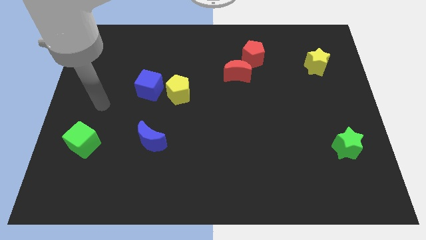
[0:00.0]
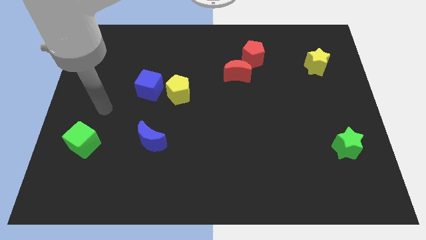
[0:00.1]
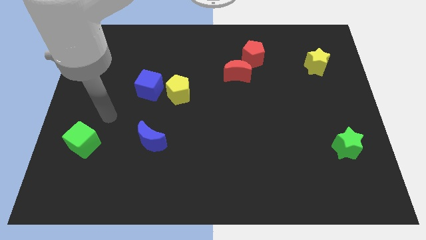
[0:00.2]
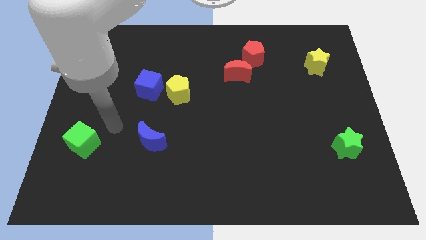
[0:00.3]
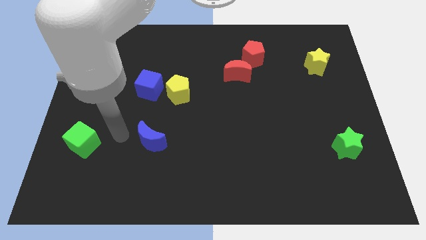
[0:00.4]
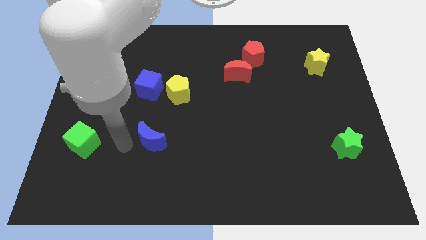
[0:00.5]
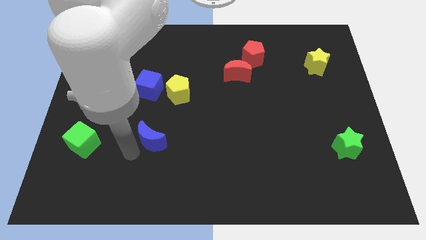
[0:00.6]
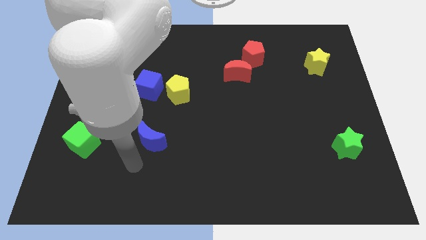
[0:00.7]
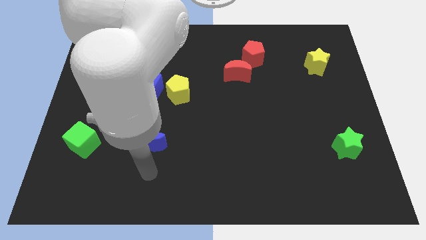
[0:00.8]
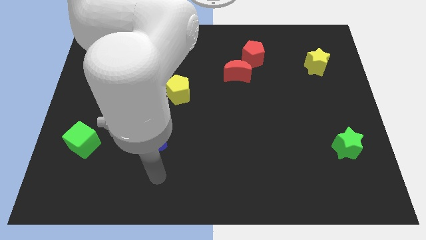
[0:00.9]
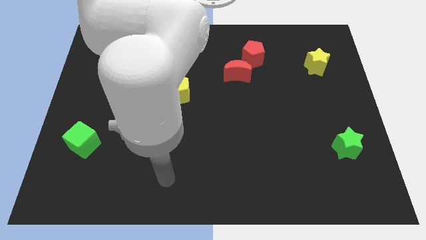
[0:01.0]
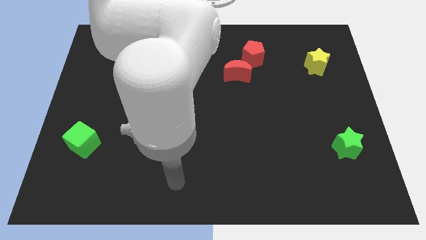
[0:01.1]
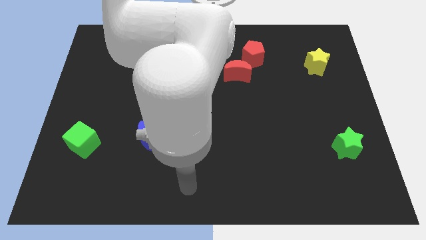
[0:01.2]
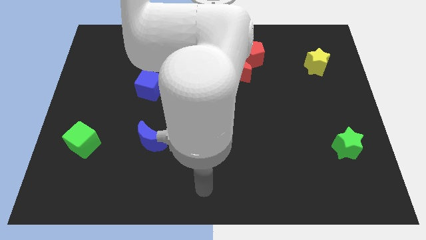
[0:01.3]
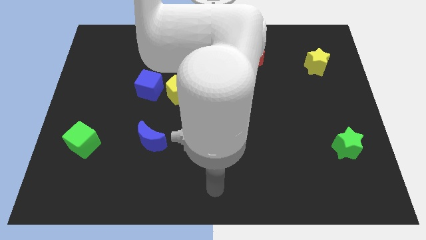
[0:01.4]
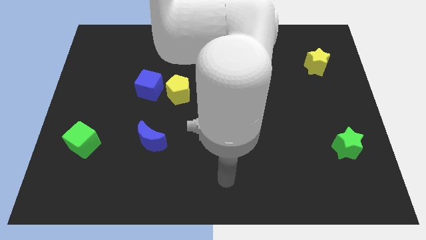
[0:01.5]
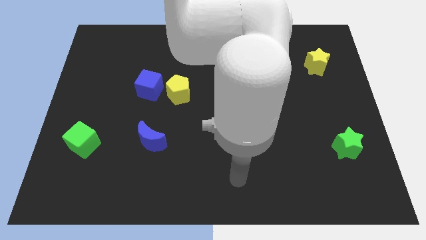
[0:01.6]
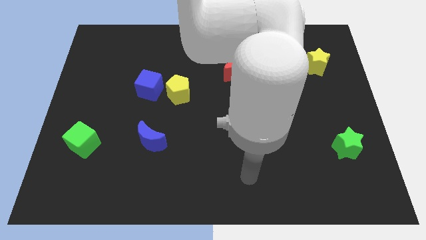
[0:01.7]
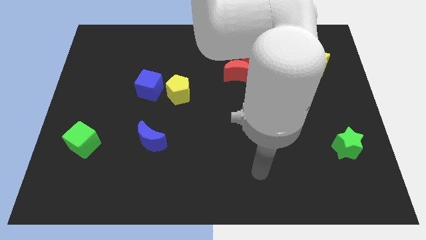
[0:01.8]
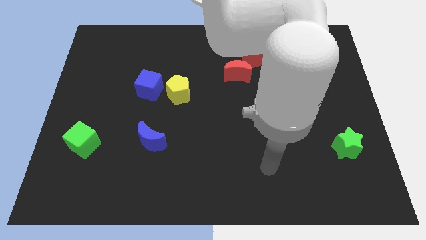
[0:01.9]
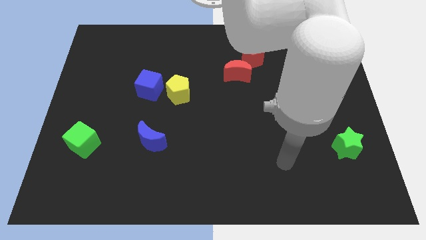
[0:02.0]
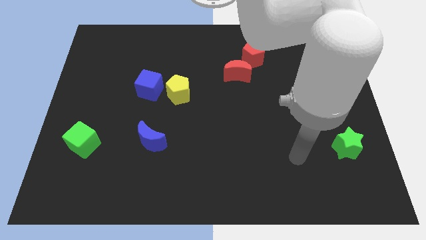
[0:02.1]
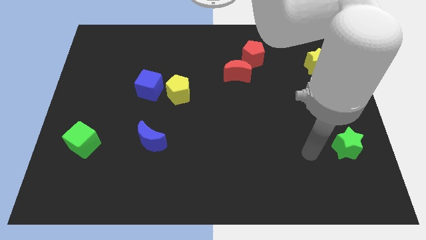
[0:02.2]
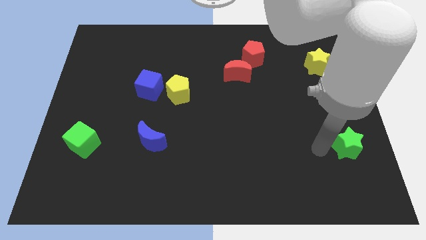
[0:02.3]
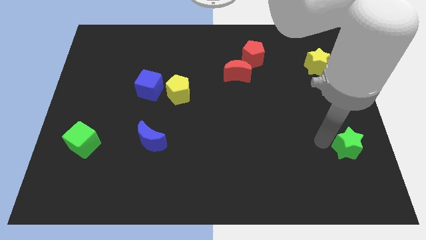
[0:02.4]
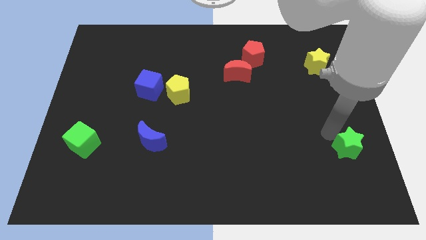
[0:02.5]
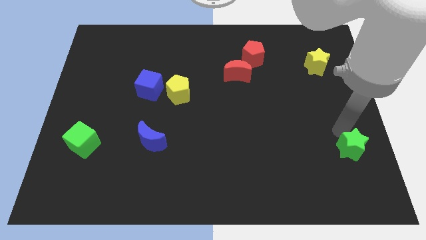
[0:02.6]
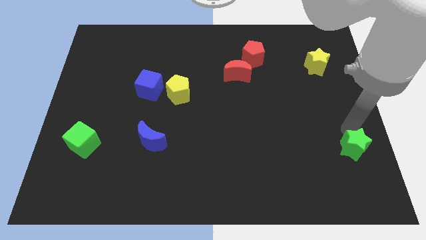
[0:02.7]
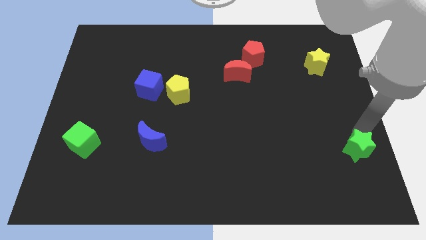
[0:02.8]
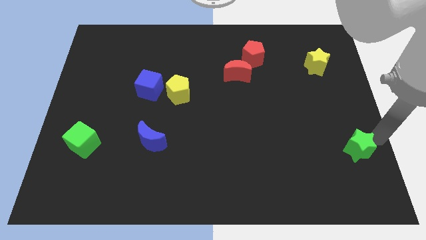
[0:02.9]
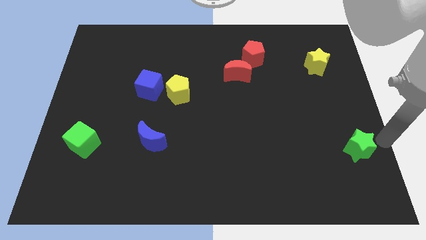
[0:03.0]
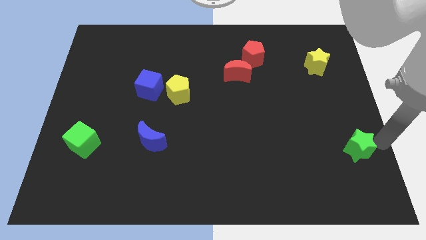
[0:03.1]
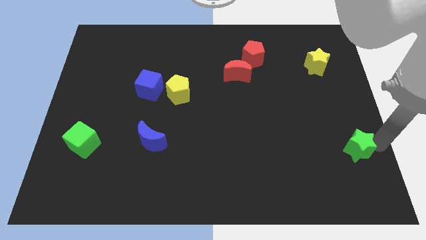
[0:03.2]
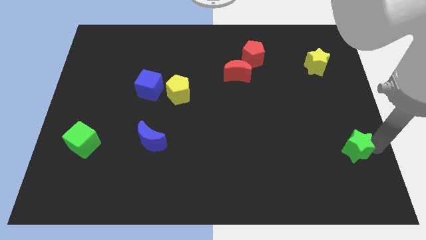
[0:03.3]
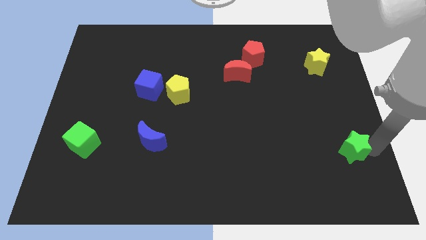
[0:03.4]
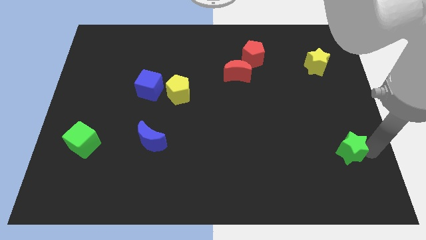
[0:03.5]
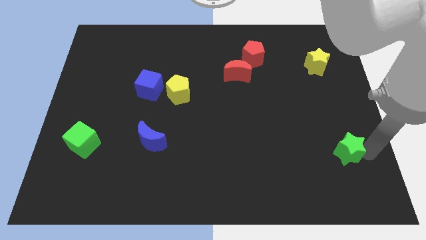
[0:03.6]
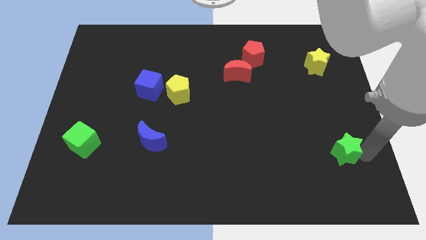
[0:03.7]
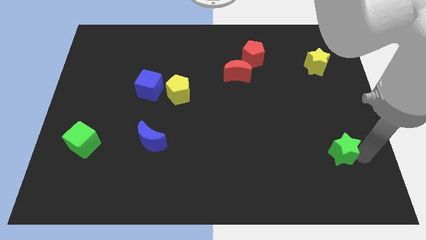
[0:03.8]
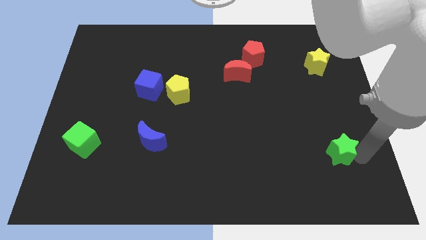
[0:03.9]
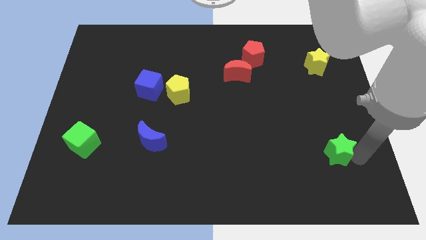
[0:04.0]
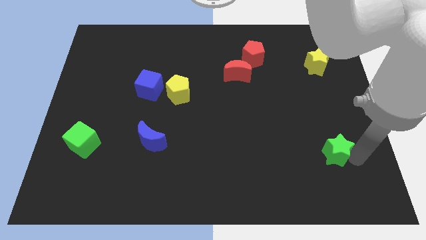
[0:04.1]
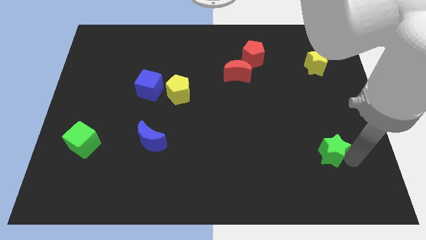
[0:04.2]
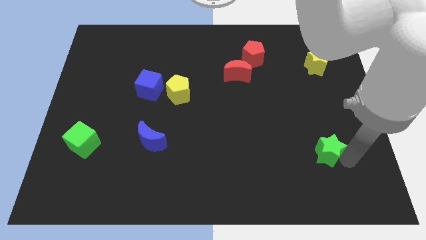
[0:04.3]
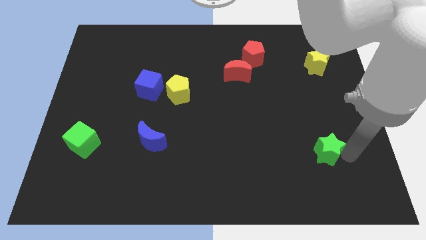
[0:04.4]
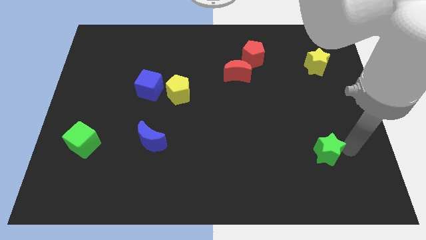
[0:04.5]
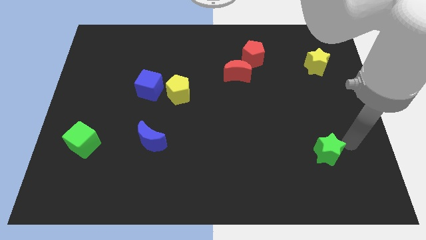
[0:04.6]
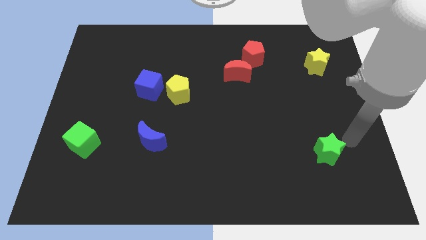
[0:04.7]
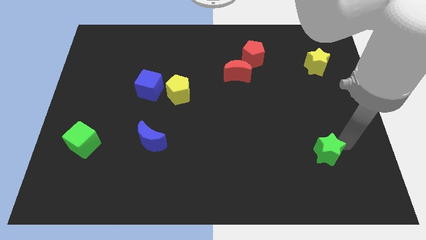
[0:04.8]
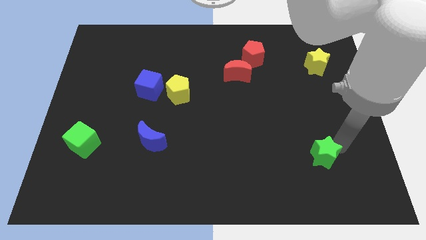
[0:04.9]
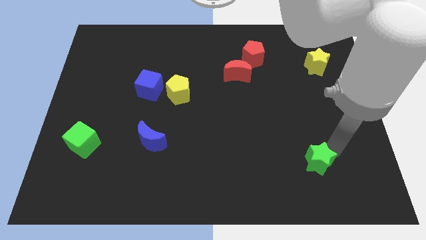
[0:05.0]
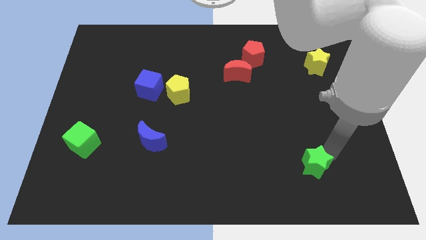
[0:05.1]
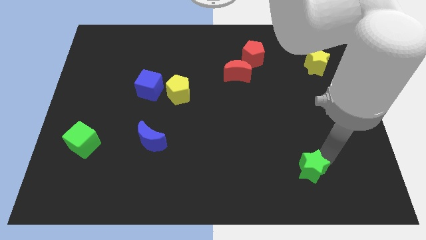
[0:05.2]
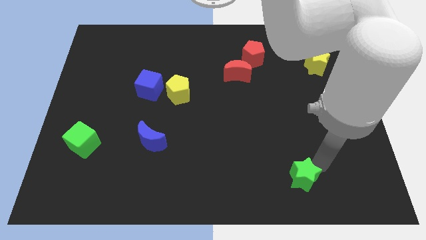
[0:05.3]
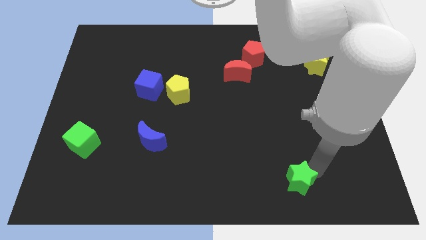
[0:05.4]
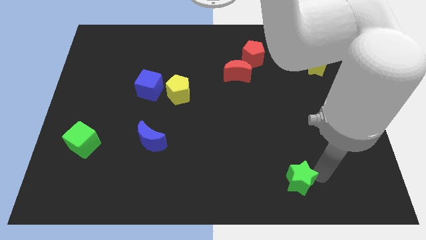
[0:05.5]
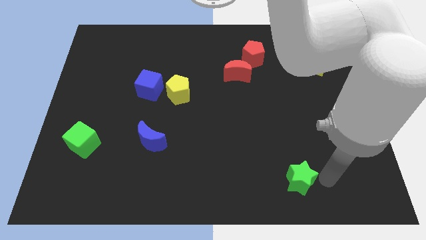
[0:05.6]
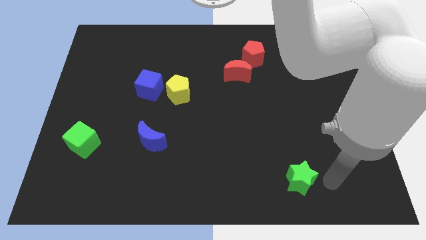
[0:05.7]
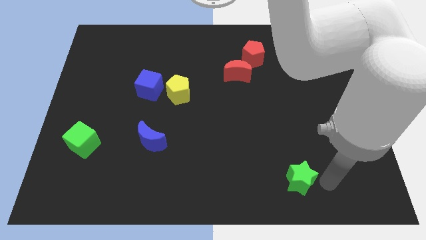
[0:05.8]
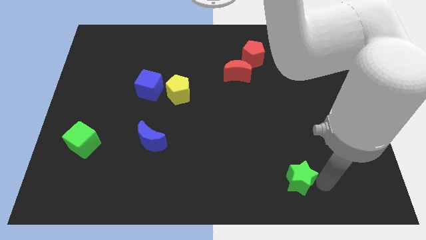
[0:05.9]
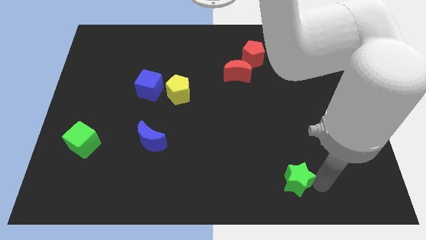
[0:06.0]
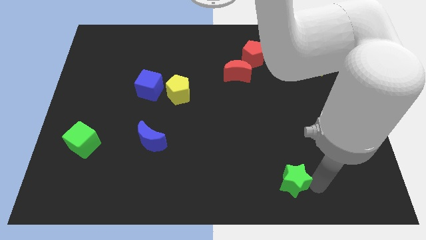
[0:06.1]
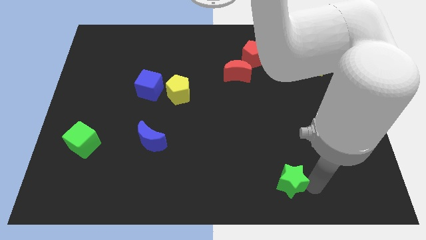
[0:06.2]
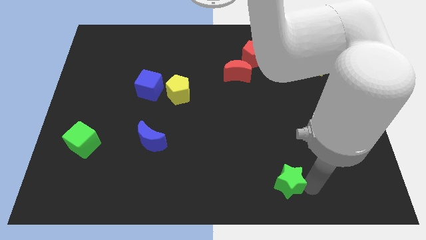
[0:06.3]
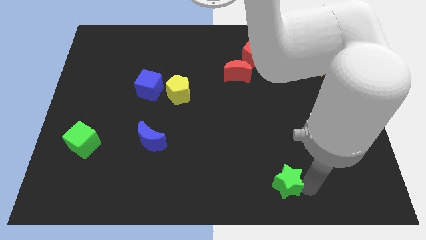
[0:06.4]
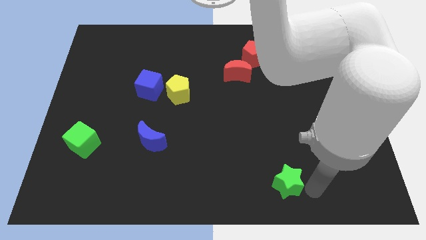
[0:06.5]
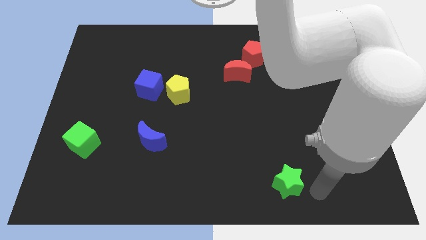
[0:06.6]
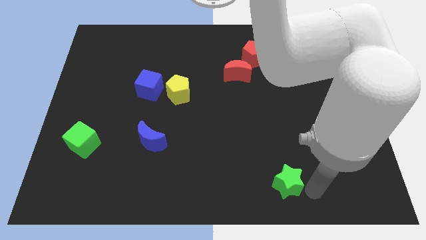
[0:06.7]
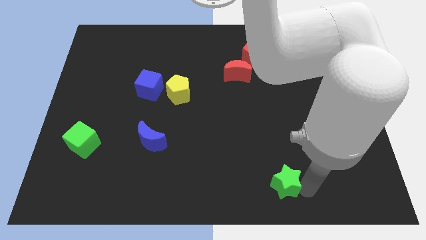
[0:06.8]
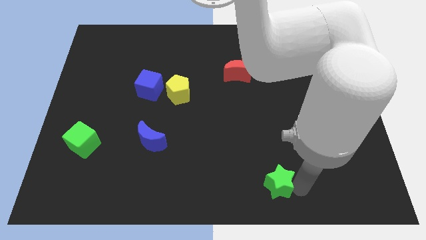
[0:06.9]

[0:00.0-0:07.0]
put the green star to the bottom side

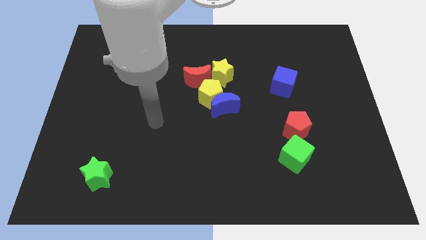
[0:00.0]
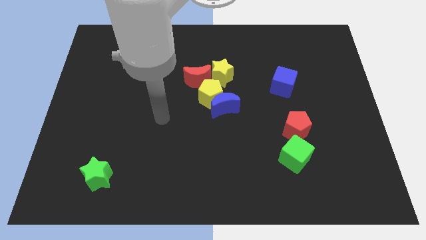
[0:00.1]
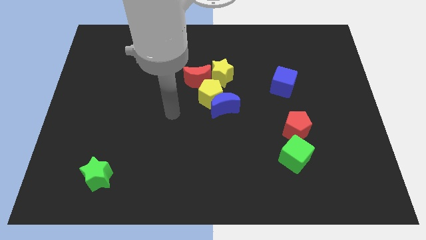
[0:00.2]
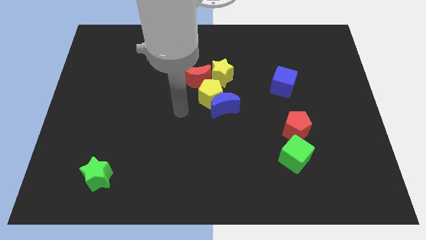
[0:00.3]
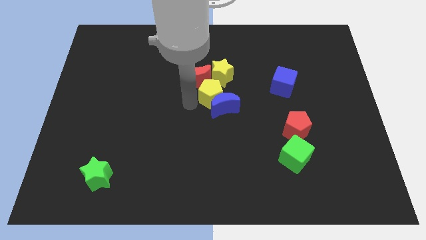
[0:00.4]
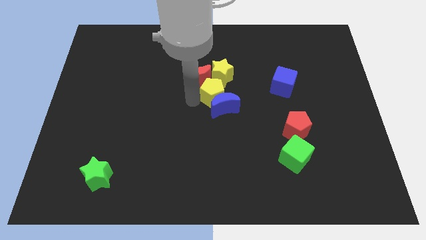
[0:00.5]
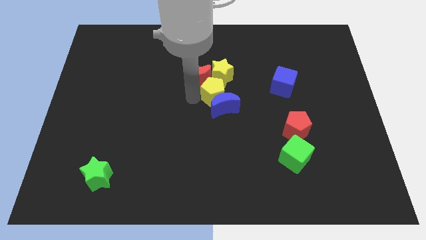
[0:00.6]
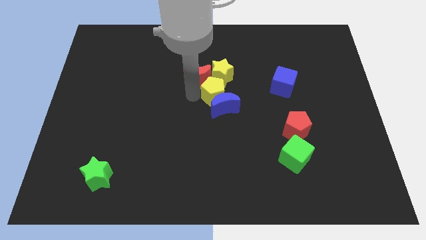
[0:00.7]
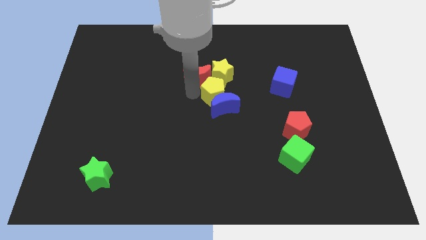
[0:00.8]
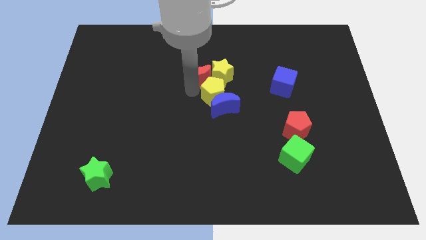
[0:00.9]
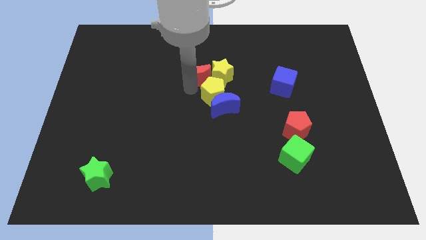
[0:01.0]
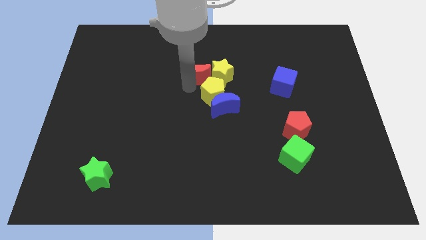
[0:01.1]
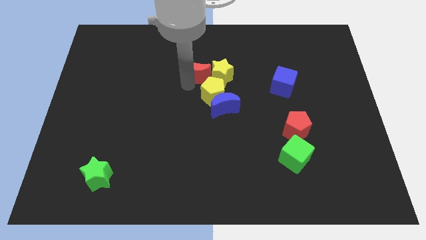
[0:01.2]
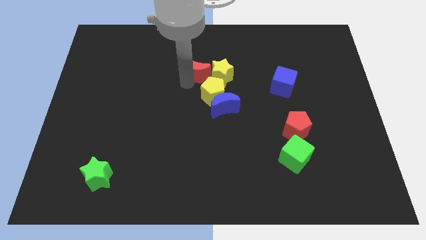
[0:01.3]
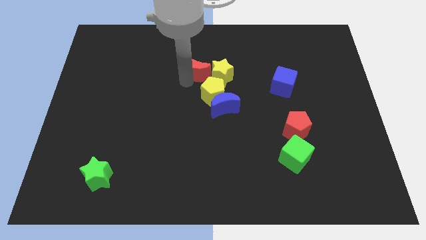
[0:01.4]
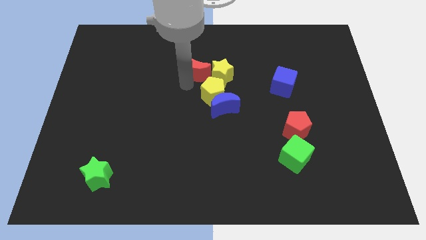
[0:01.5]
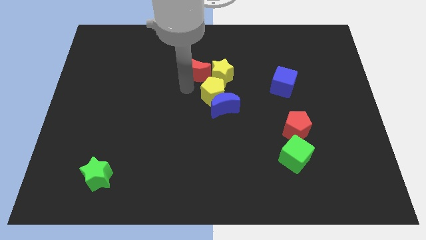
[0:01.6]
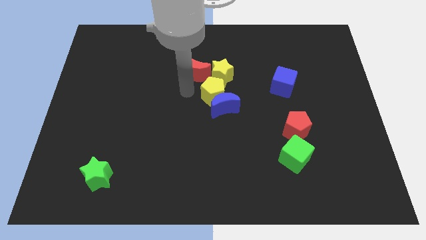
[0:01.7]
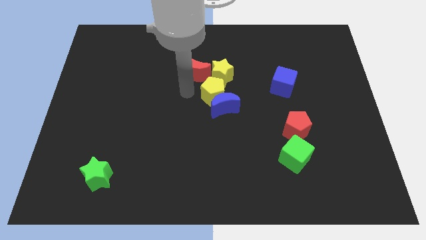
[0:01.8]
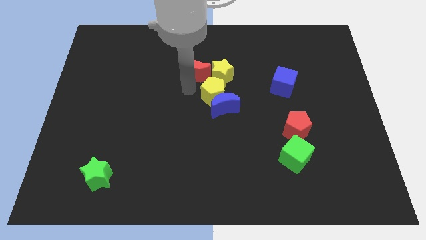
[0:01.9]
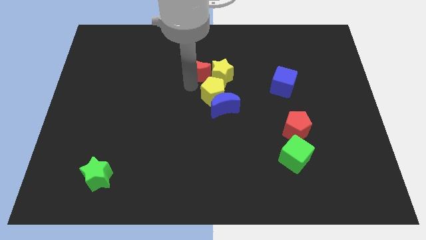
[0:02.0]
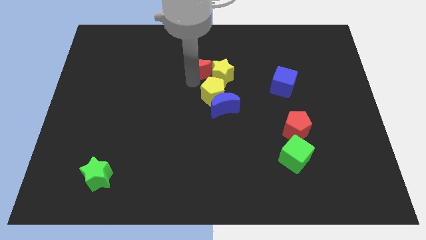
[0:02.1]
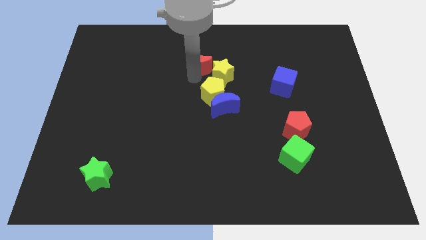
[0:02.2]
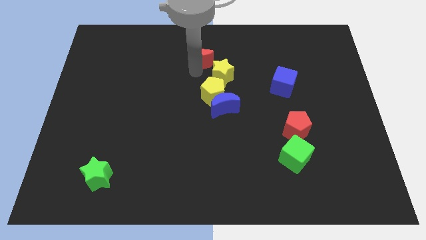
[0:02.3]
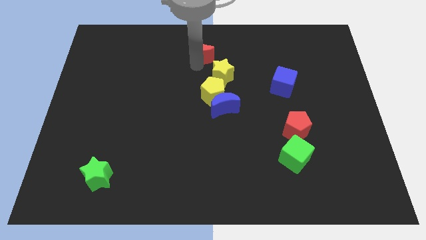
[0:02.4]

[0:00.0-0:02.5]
slide the red moon to the top
